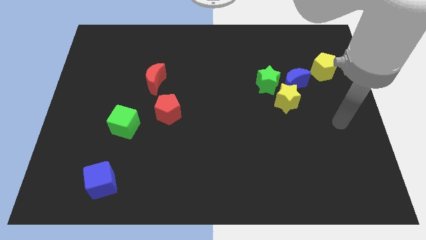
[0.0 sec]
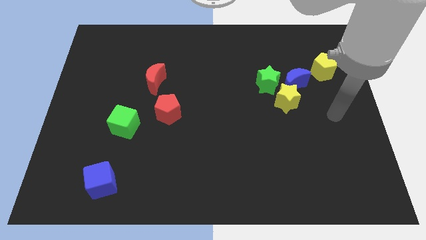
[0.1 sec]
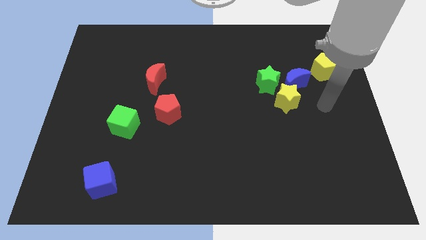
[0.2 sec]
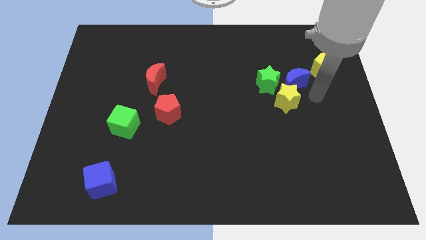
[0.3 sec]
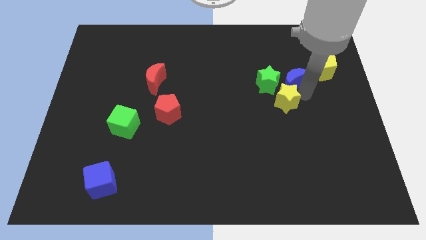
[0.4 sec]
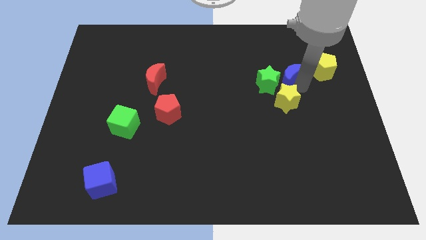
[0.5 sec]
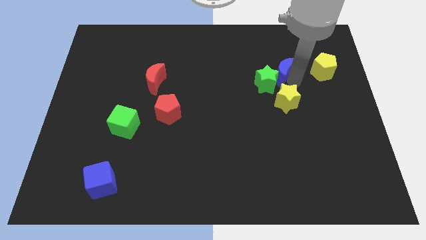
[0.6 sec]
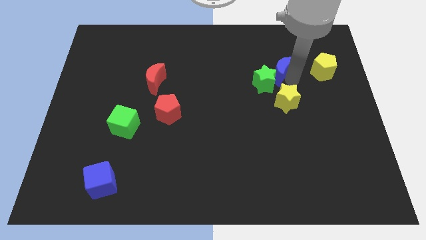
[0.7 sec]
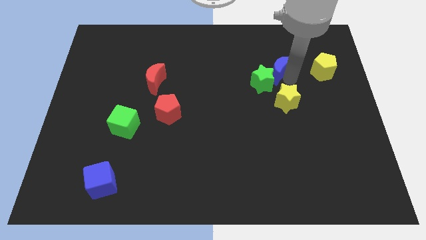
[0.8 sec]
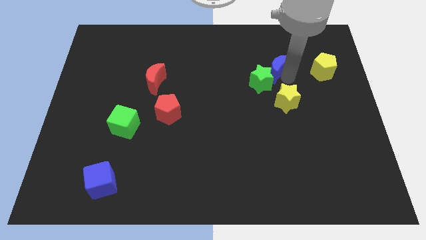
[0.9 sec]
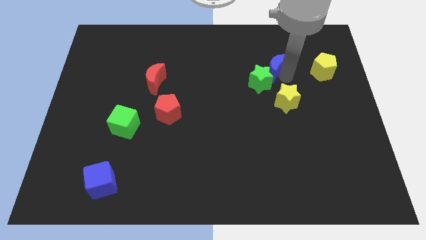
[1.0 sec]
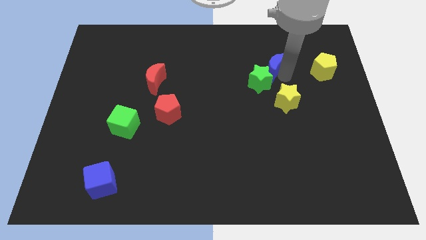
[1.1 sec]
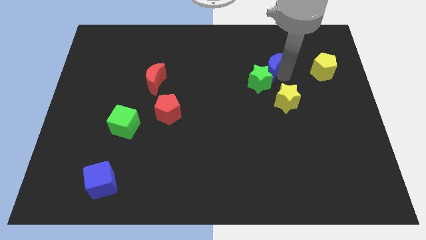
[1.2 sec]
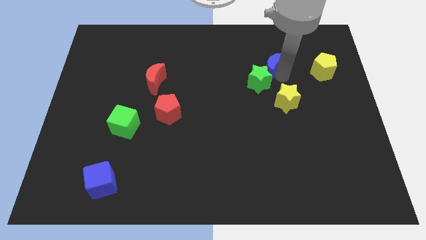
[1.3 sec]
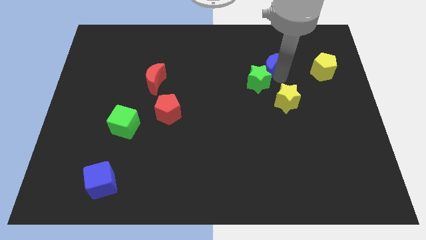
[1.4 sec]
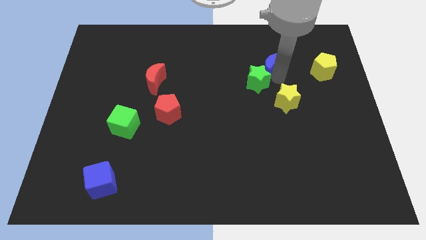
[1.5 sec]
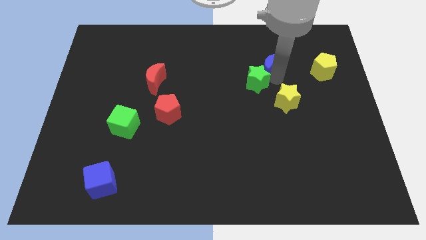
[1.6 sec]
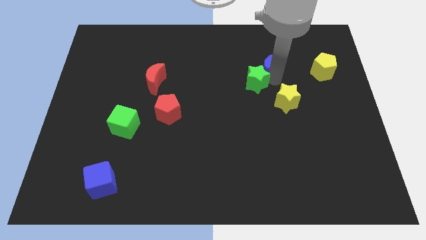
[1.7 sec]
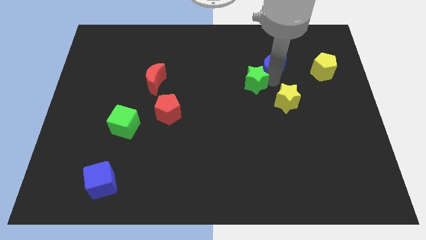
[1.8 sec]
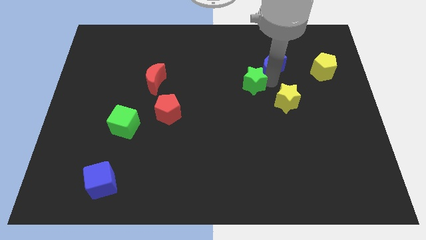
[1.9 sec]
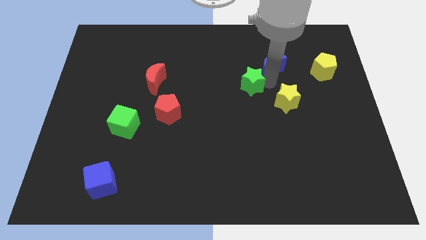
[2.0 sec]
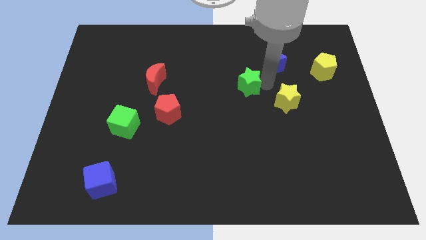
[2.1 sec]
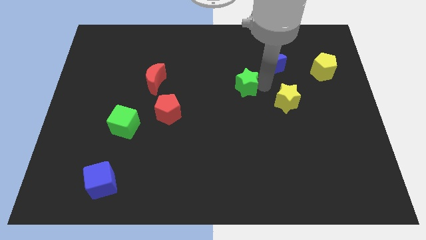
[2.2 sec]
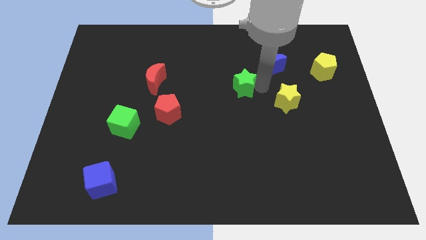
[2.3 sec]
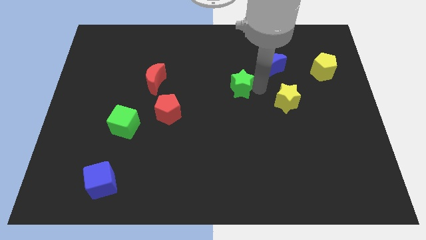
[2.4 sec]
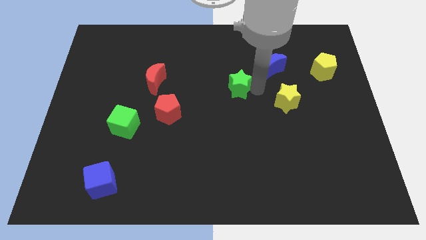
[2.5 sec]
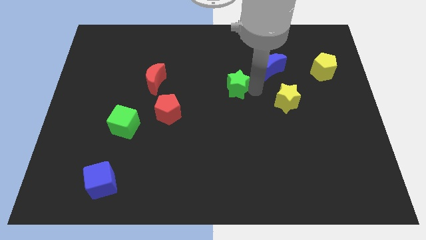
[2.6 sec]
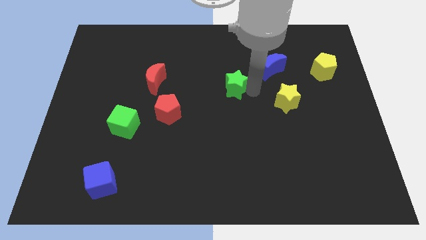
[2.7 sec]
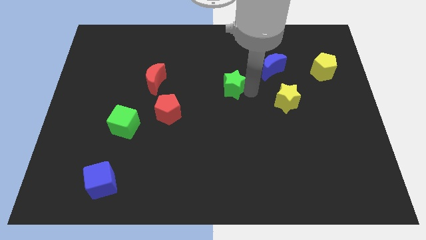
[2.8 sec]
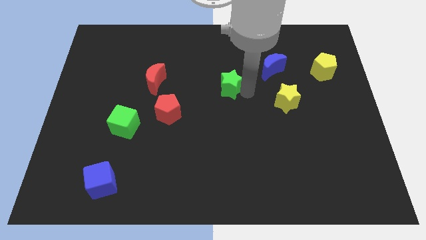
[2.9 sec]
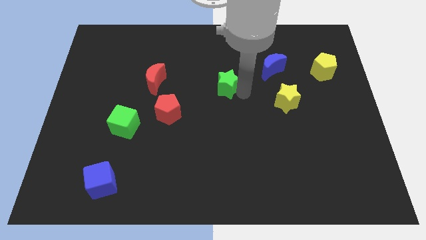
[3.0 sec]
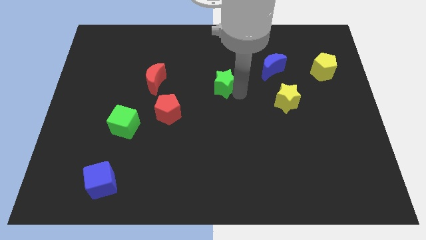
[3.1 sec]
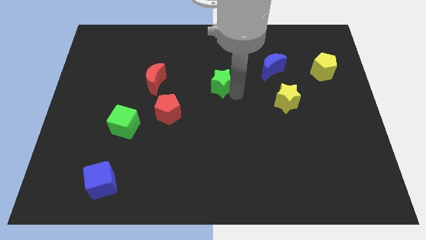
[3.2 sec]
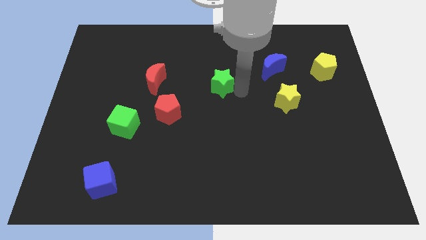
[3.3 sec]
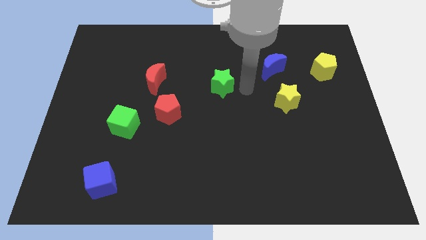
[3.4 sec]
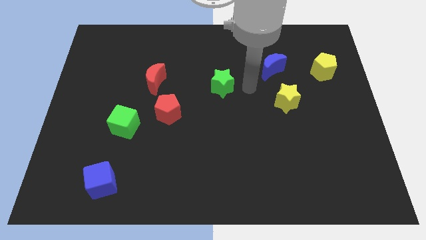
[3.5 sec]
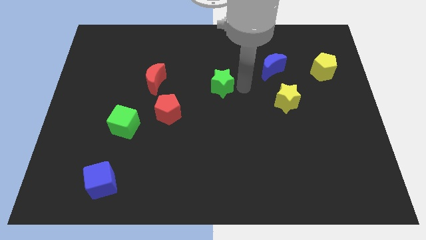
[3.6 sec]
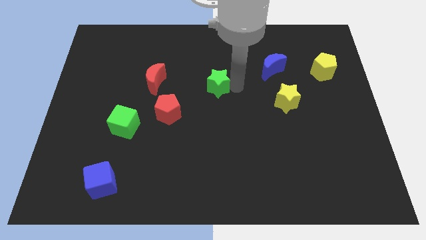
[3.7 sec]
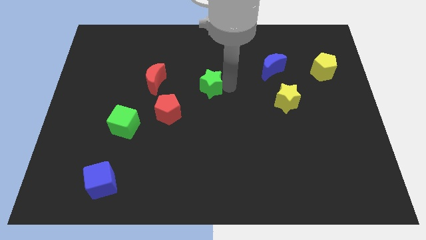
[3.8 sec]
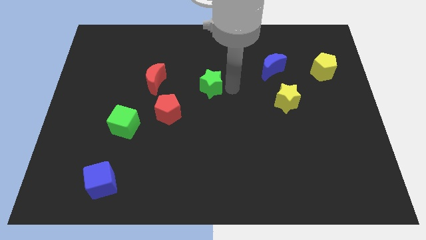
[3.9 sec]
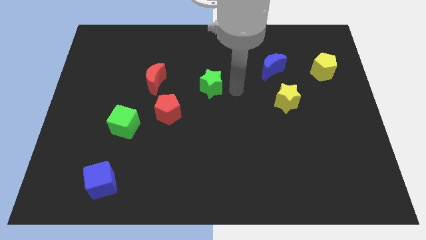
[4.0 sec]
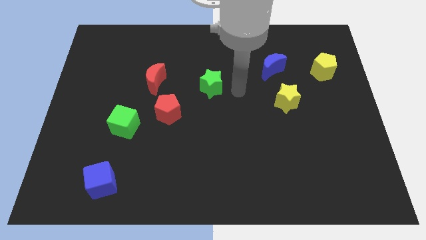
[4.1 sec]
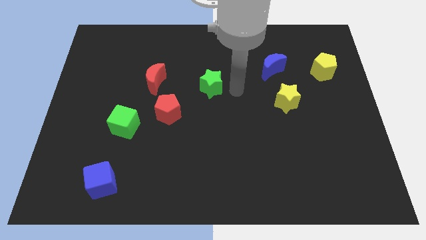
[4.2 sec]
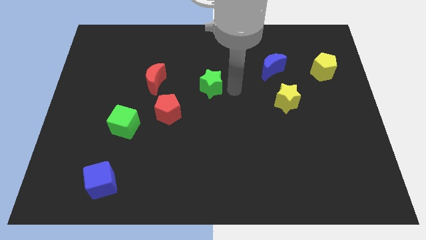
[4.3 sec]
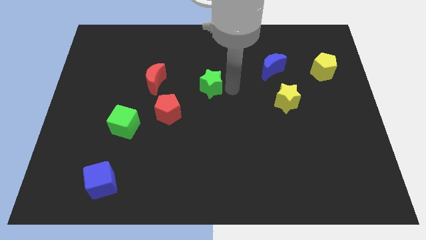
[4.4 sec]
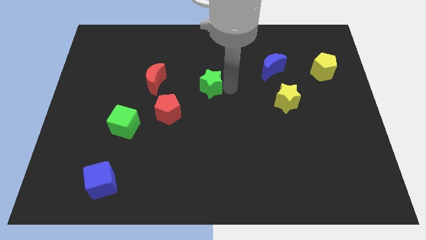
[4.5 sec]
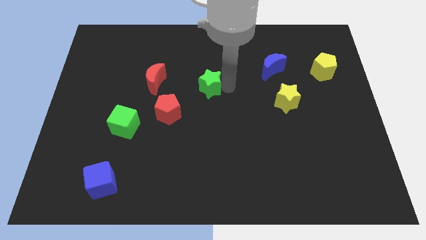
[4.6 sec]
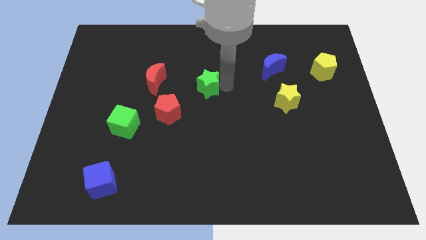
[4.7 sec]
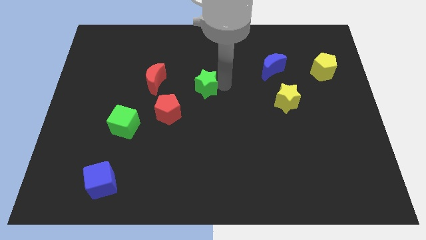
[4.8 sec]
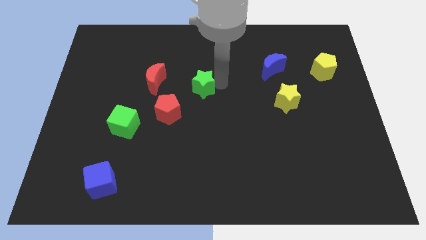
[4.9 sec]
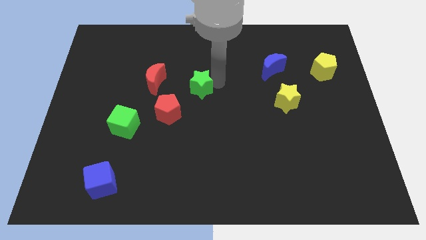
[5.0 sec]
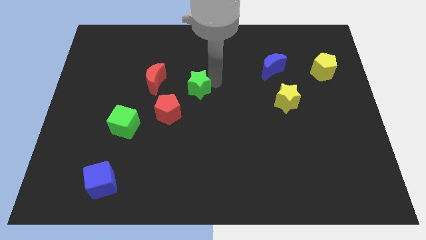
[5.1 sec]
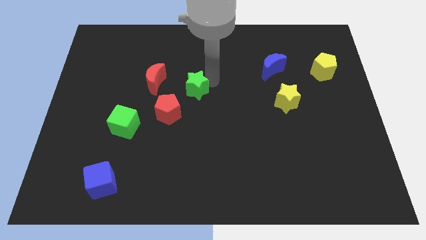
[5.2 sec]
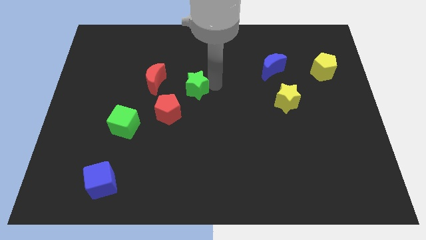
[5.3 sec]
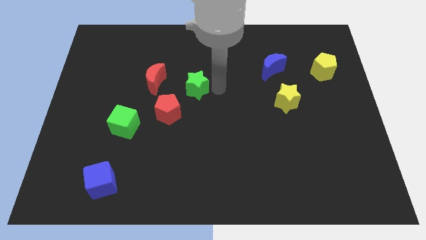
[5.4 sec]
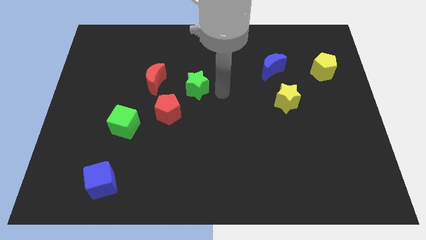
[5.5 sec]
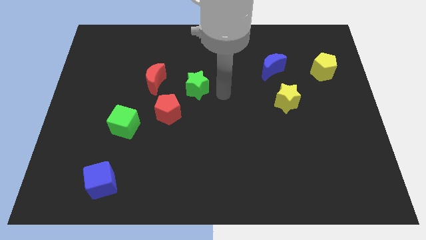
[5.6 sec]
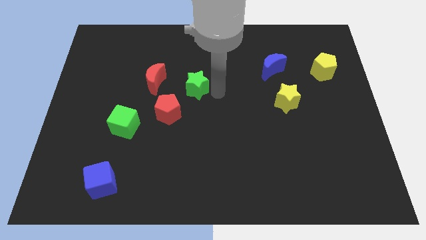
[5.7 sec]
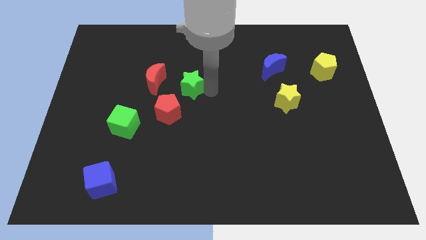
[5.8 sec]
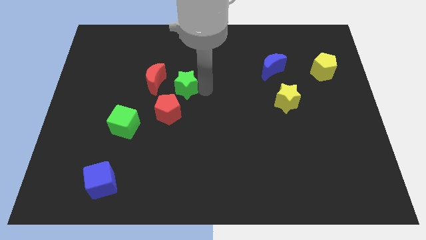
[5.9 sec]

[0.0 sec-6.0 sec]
move the green star to the left

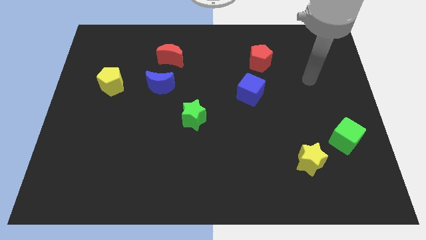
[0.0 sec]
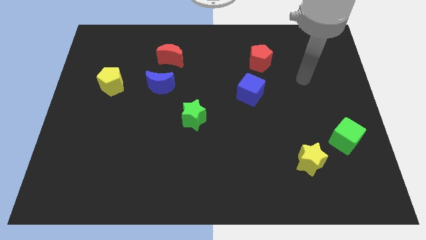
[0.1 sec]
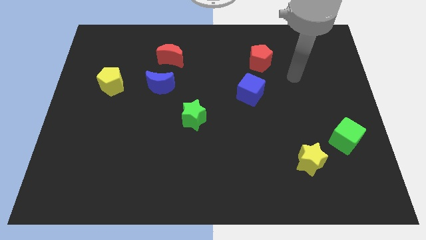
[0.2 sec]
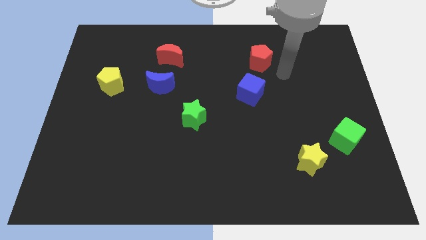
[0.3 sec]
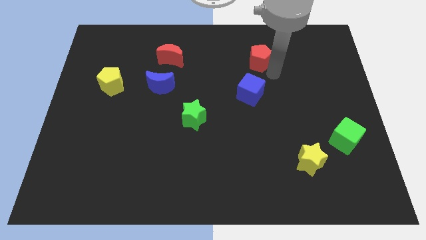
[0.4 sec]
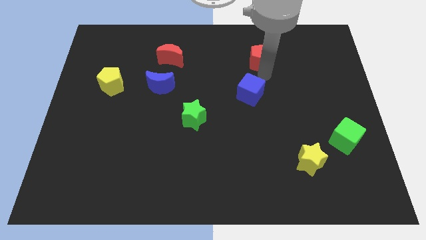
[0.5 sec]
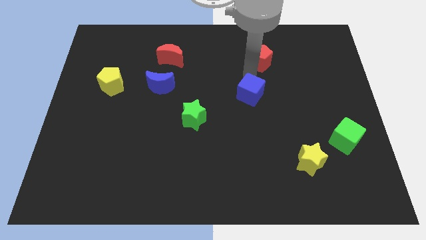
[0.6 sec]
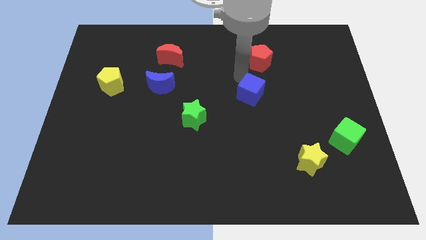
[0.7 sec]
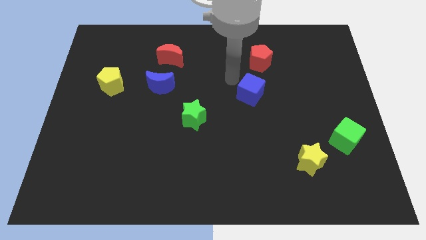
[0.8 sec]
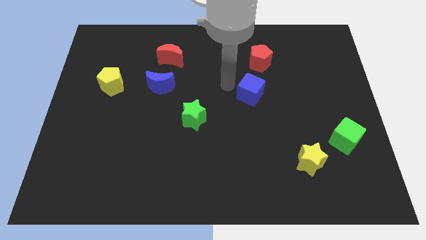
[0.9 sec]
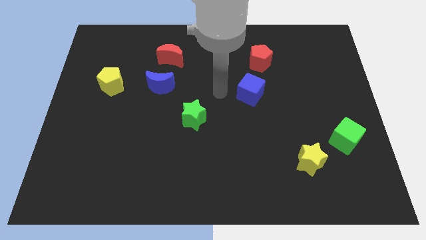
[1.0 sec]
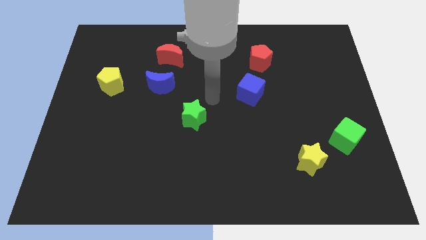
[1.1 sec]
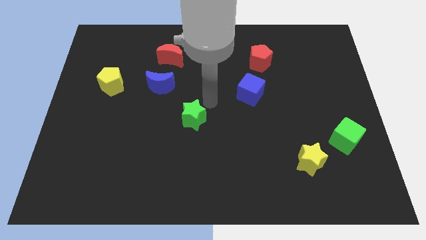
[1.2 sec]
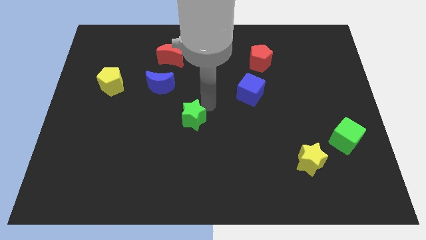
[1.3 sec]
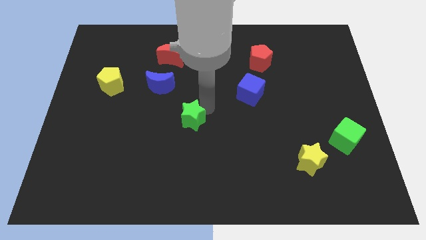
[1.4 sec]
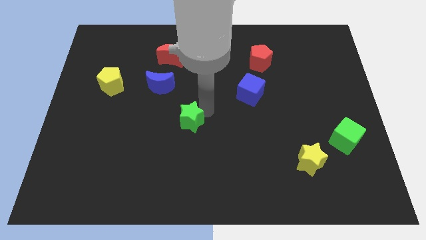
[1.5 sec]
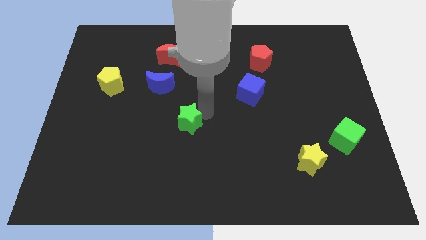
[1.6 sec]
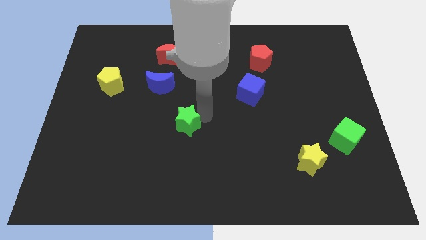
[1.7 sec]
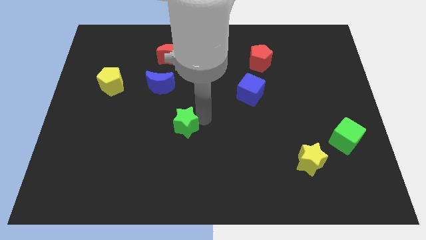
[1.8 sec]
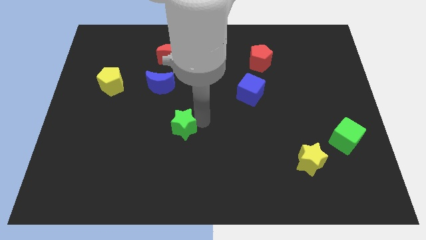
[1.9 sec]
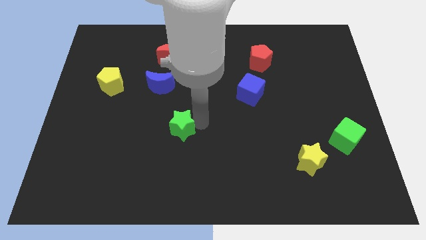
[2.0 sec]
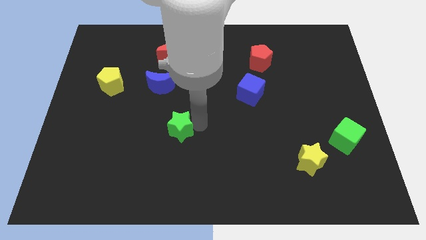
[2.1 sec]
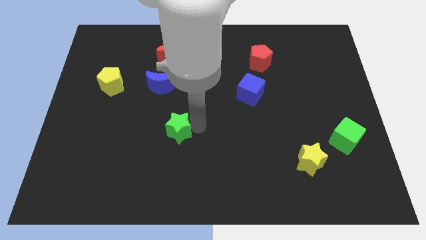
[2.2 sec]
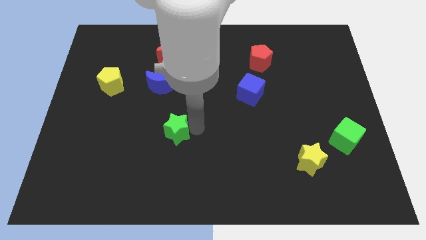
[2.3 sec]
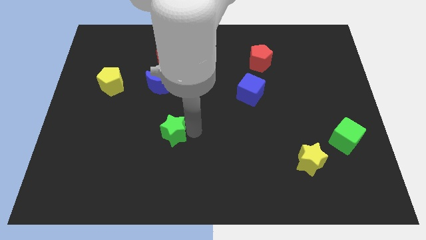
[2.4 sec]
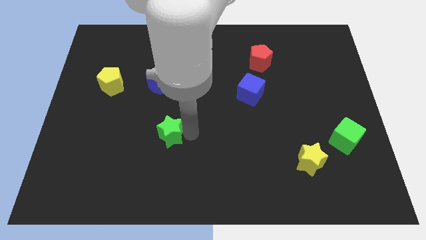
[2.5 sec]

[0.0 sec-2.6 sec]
push the green star a little downwards and left diagonally
